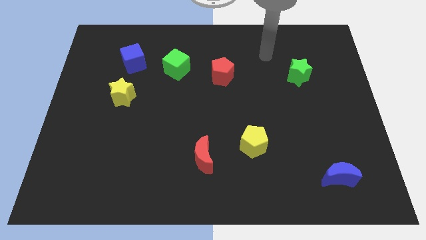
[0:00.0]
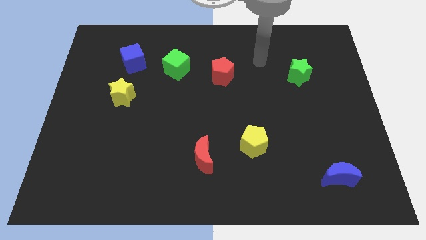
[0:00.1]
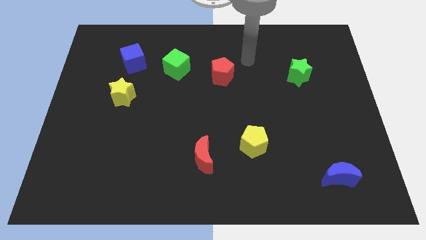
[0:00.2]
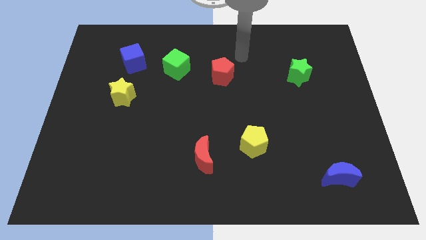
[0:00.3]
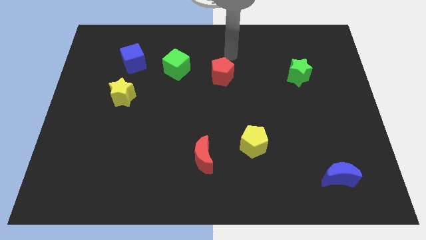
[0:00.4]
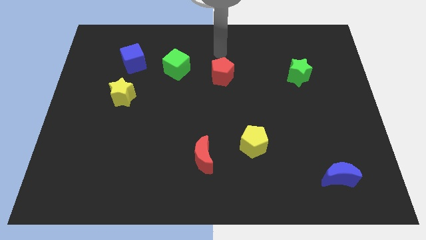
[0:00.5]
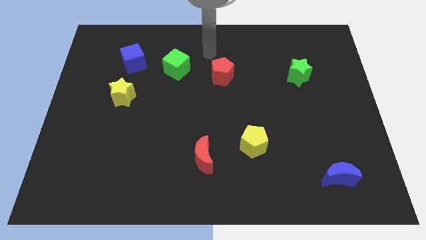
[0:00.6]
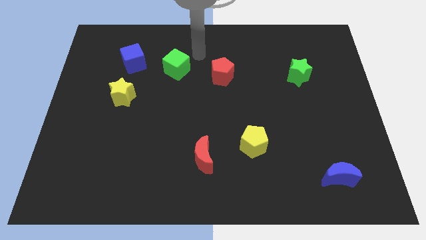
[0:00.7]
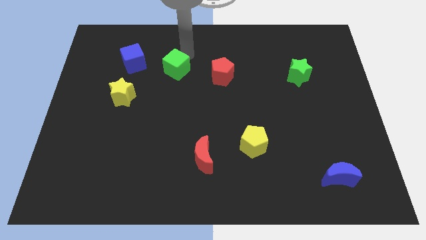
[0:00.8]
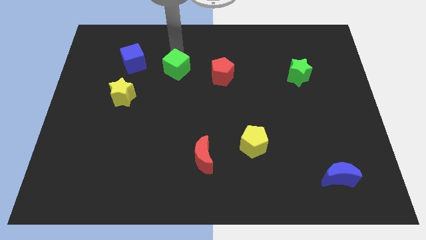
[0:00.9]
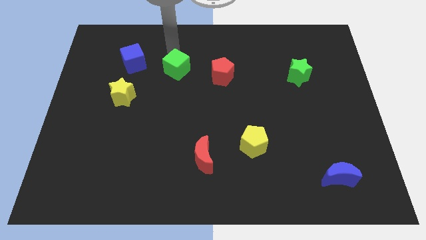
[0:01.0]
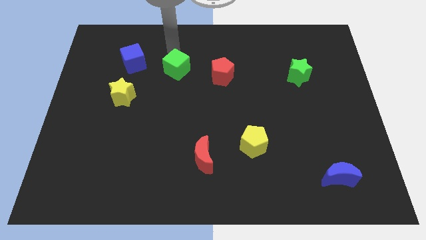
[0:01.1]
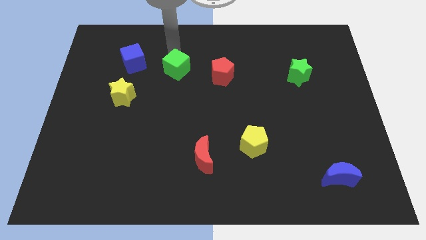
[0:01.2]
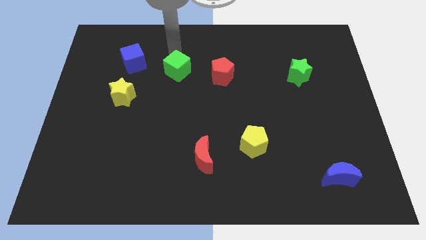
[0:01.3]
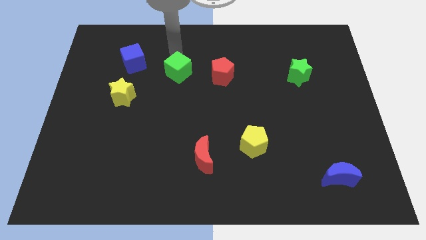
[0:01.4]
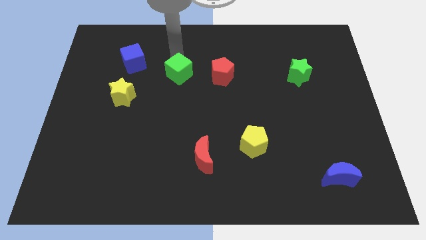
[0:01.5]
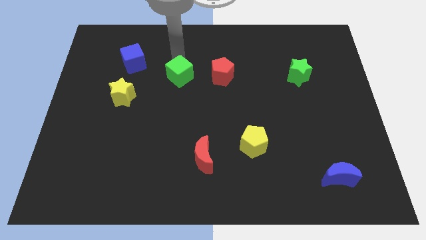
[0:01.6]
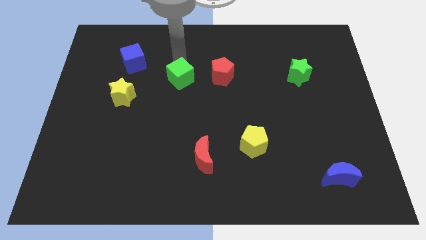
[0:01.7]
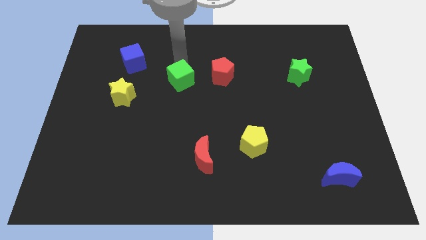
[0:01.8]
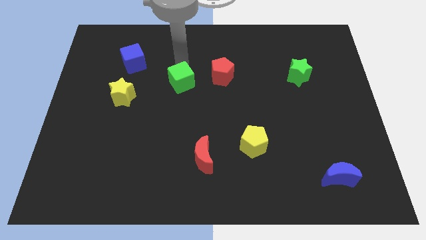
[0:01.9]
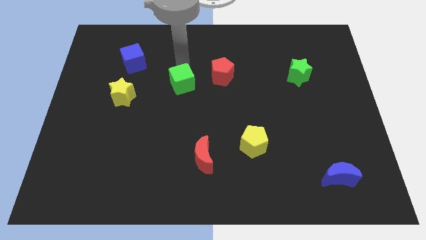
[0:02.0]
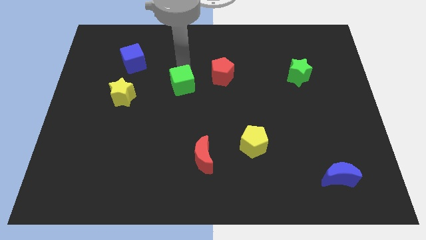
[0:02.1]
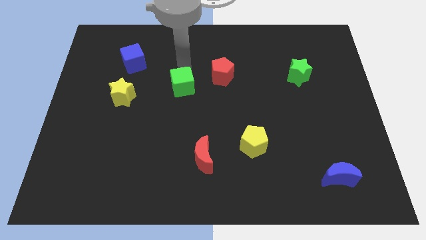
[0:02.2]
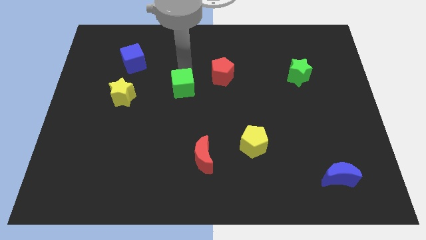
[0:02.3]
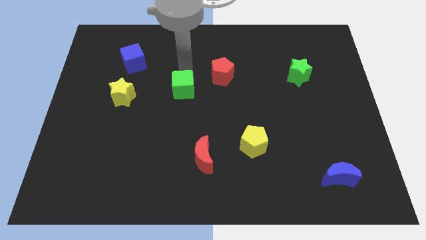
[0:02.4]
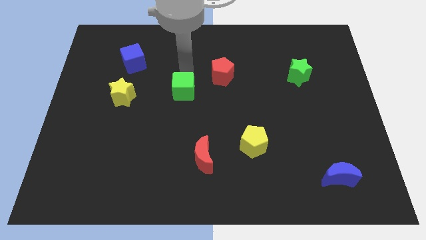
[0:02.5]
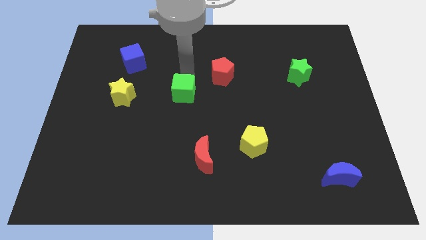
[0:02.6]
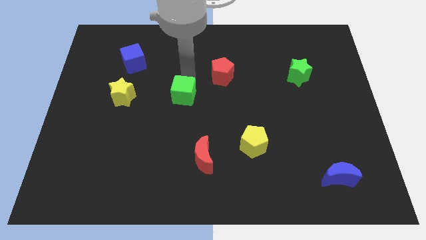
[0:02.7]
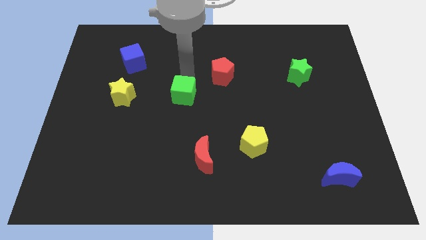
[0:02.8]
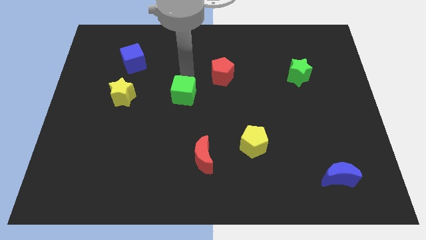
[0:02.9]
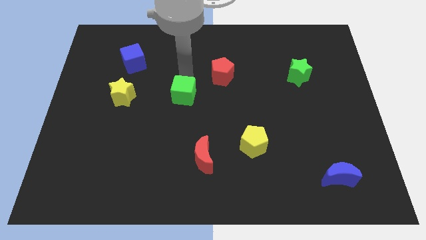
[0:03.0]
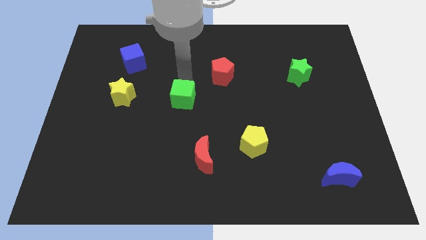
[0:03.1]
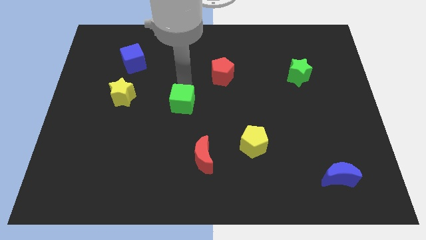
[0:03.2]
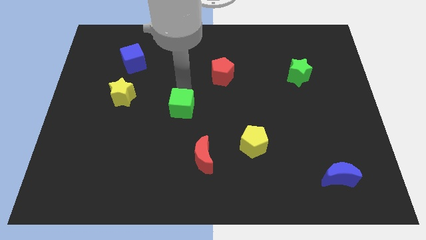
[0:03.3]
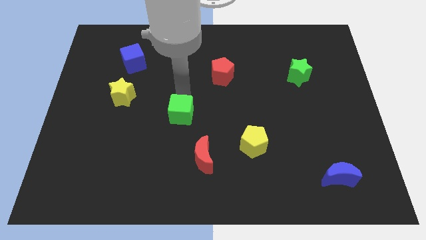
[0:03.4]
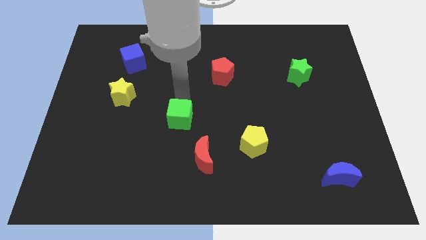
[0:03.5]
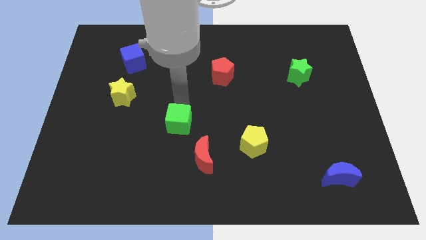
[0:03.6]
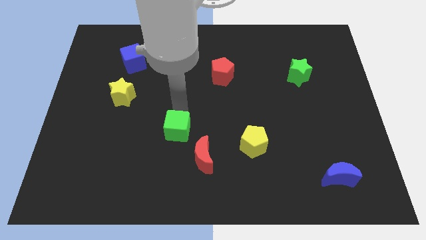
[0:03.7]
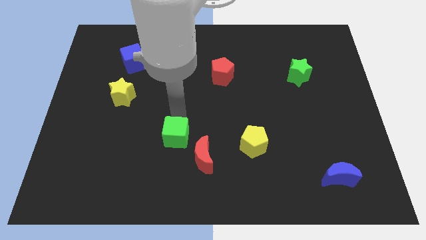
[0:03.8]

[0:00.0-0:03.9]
push the green cube down

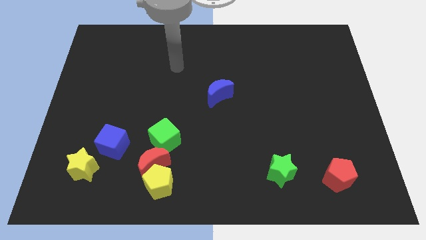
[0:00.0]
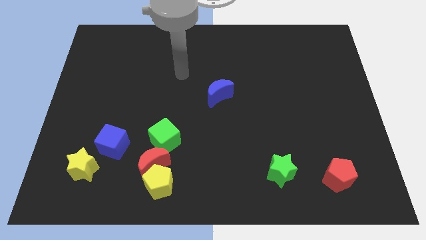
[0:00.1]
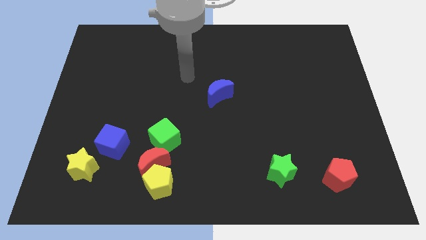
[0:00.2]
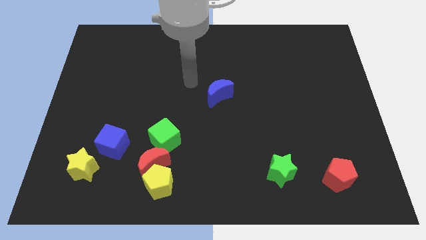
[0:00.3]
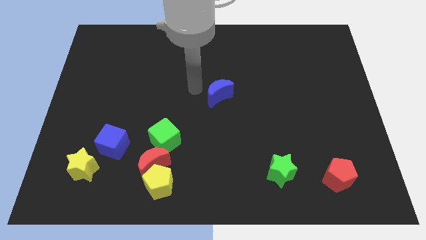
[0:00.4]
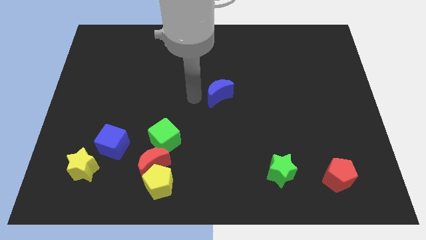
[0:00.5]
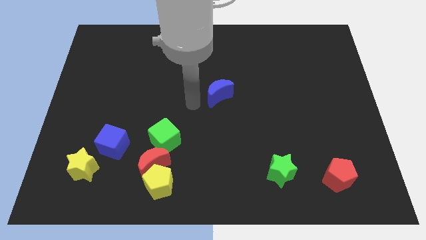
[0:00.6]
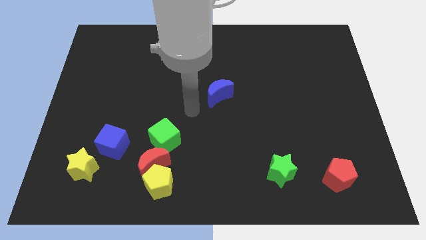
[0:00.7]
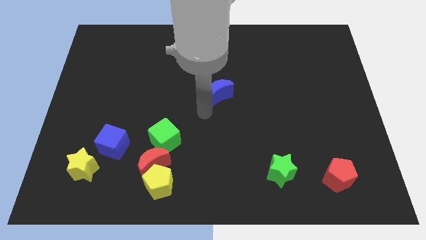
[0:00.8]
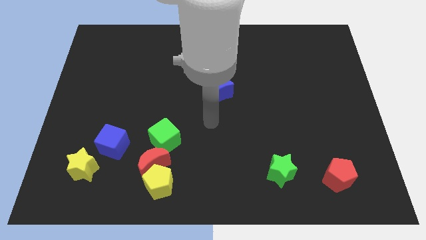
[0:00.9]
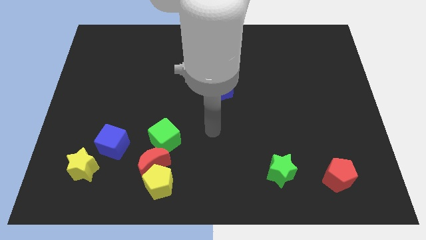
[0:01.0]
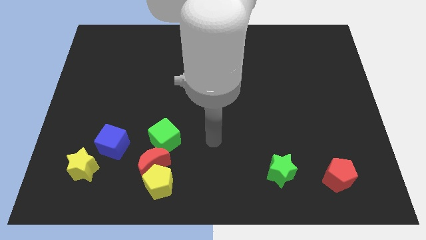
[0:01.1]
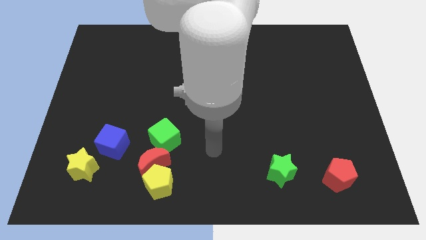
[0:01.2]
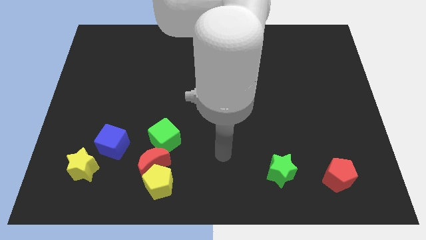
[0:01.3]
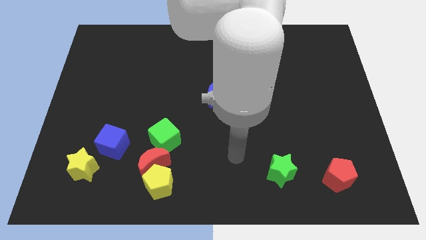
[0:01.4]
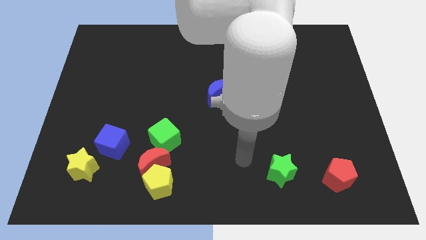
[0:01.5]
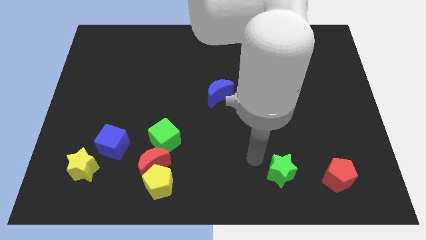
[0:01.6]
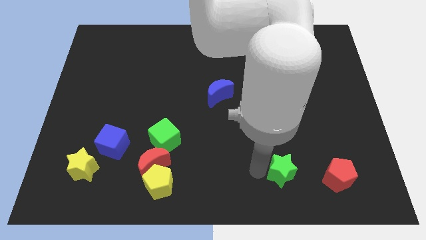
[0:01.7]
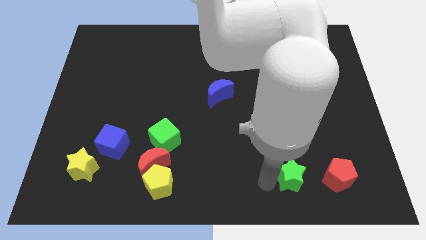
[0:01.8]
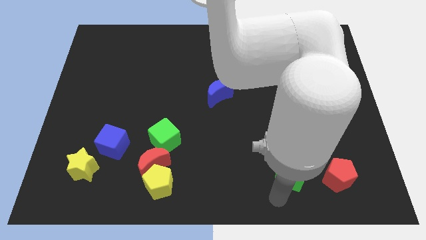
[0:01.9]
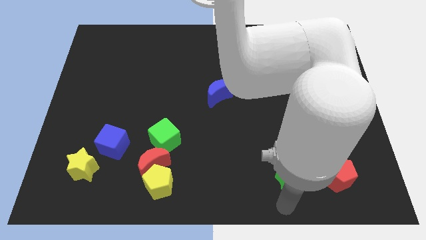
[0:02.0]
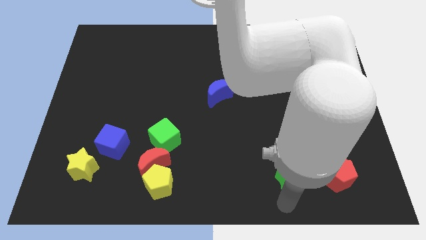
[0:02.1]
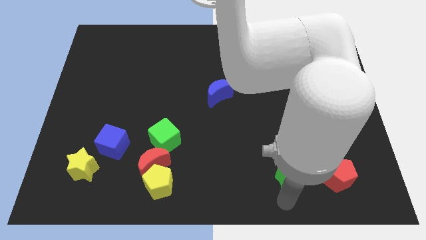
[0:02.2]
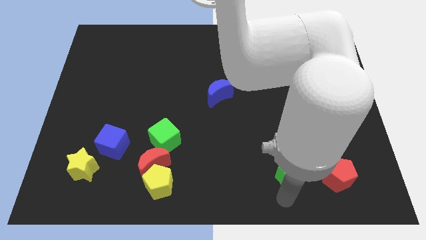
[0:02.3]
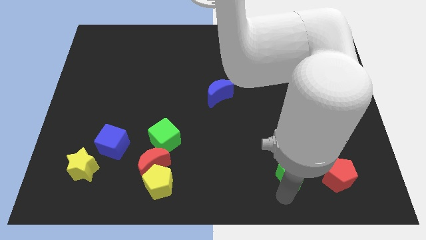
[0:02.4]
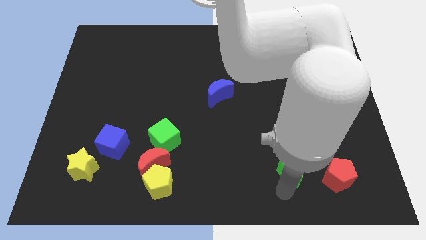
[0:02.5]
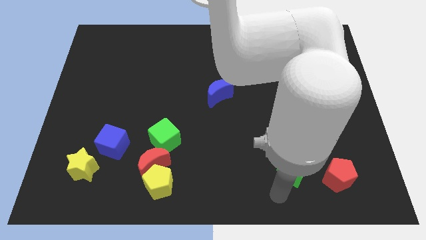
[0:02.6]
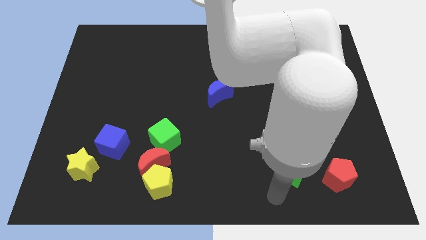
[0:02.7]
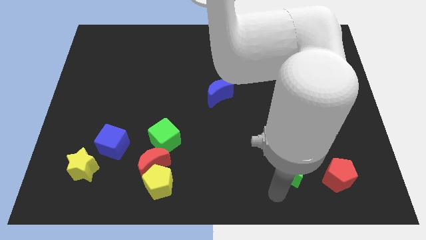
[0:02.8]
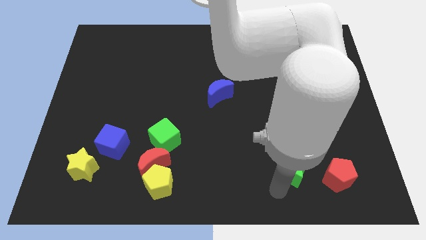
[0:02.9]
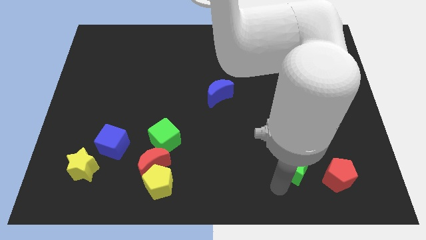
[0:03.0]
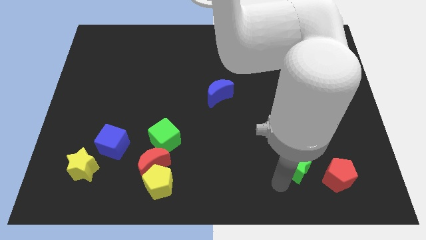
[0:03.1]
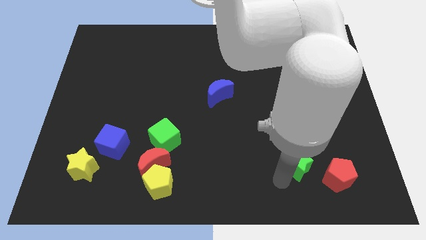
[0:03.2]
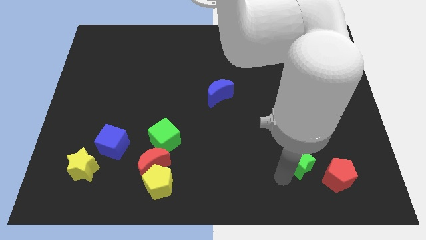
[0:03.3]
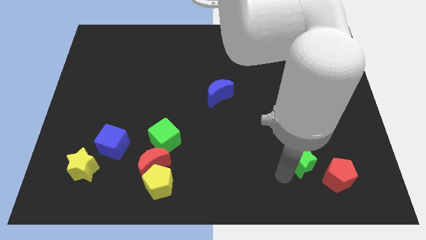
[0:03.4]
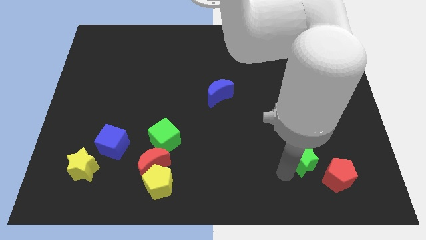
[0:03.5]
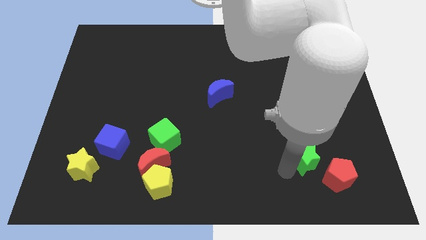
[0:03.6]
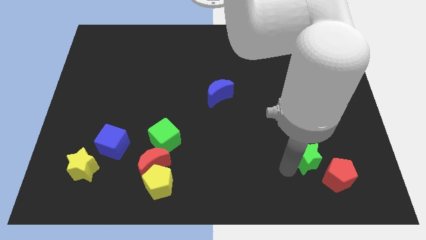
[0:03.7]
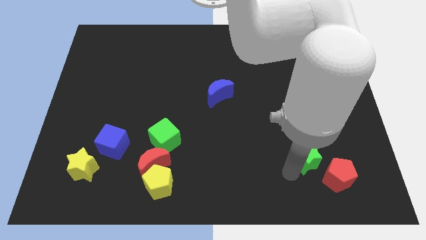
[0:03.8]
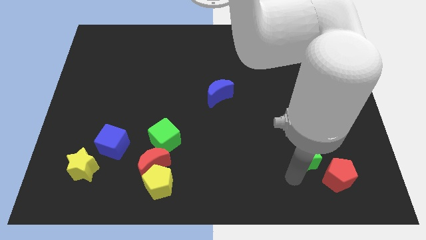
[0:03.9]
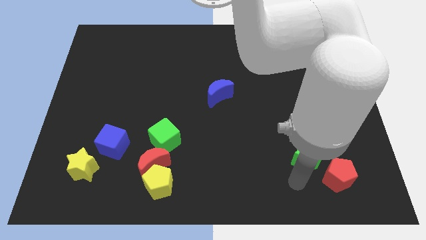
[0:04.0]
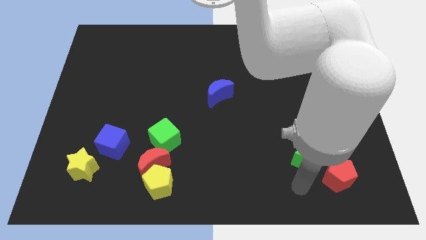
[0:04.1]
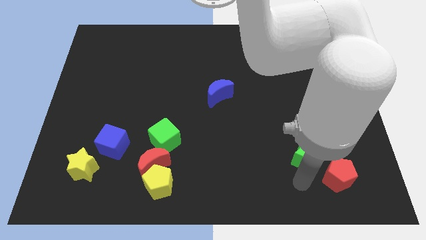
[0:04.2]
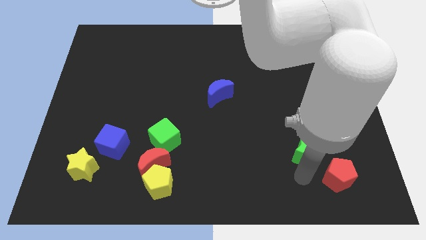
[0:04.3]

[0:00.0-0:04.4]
push the green star a bit upwards and then to the right

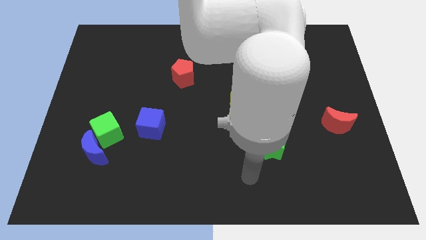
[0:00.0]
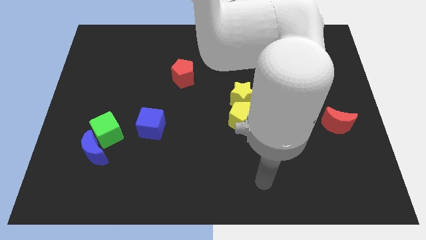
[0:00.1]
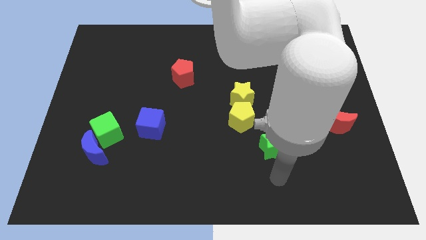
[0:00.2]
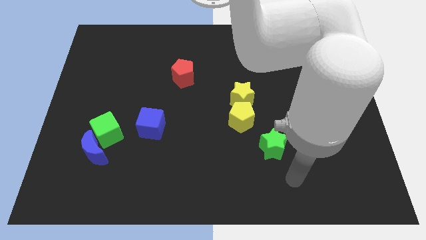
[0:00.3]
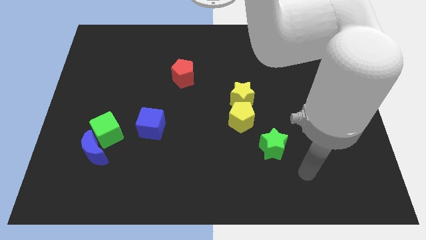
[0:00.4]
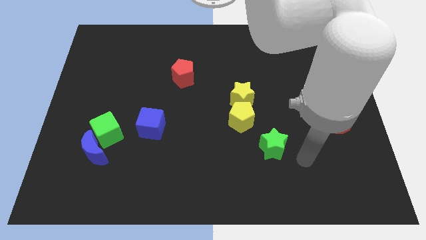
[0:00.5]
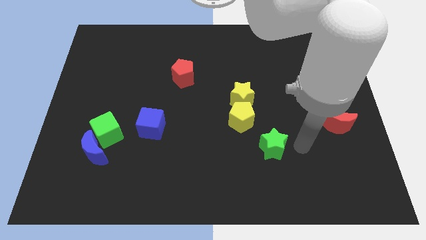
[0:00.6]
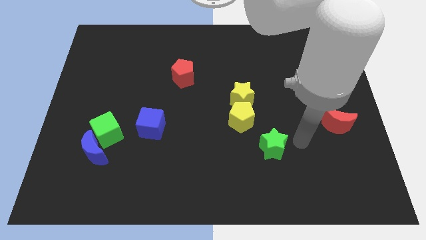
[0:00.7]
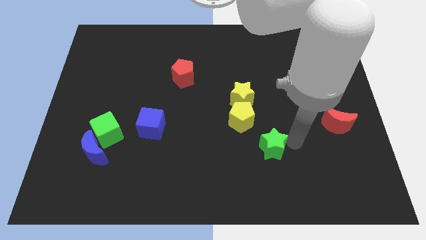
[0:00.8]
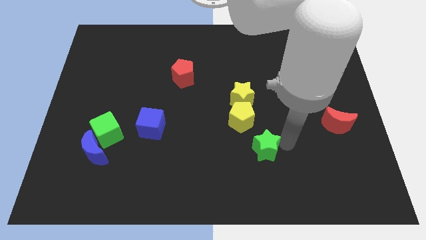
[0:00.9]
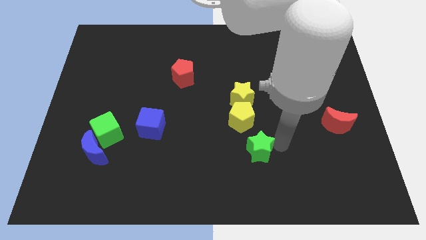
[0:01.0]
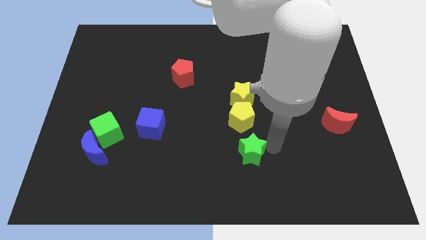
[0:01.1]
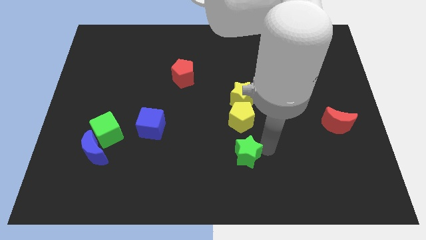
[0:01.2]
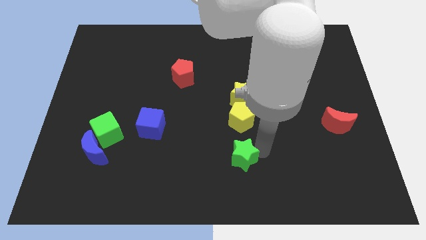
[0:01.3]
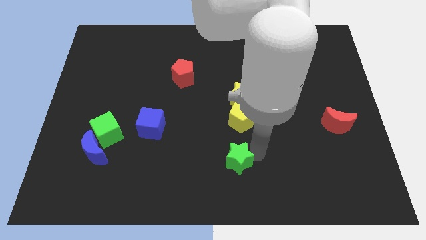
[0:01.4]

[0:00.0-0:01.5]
push the green star a bit to the left
